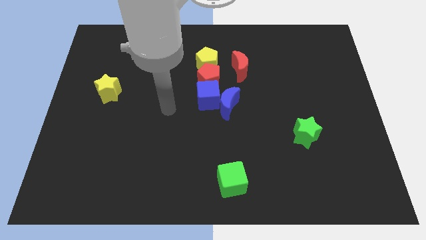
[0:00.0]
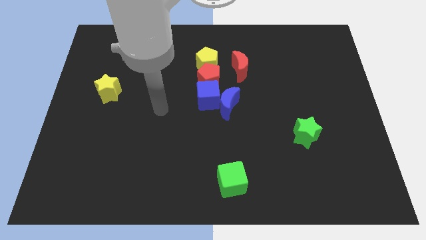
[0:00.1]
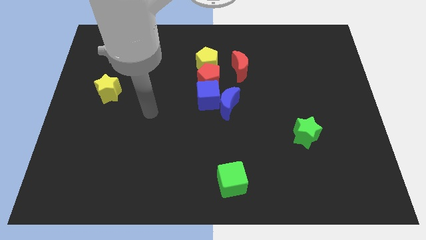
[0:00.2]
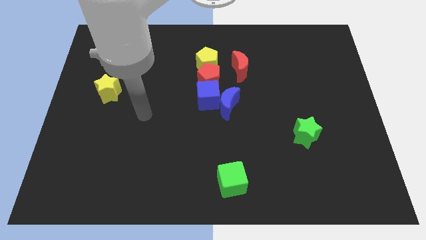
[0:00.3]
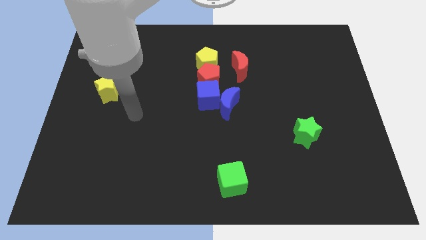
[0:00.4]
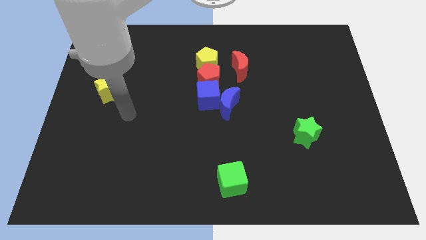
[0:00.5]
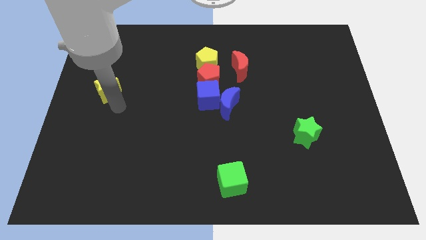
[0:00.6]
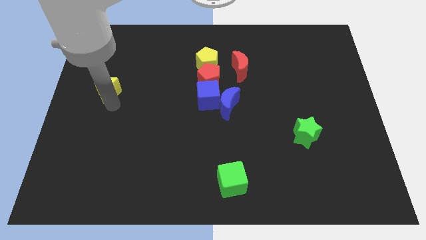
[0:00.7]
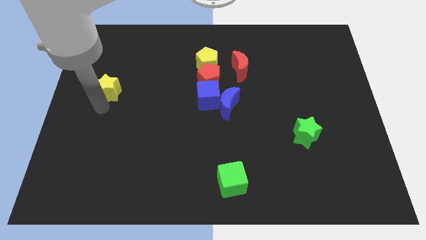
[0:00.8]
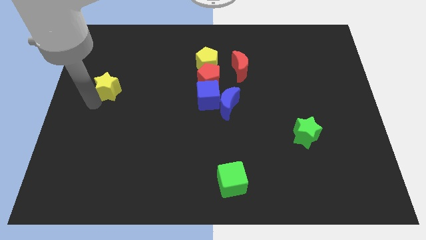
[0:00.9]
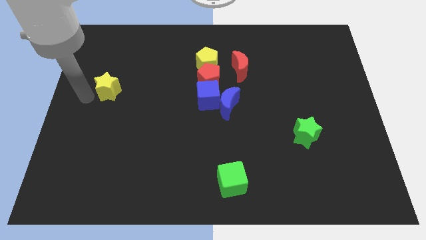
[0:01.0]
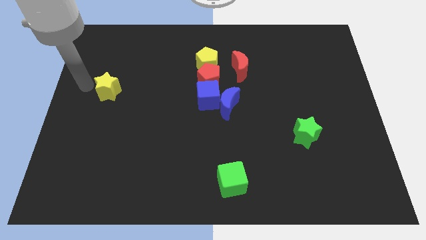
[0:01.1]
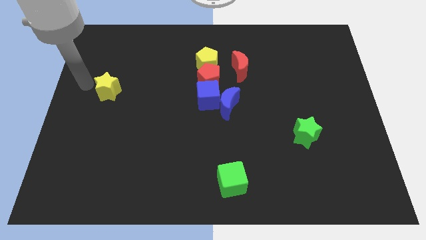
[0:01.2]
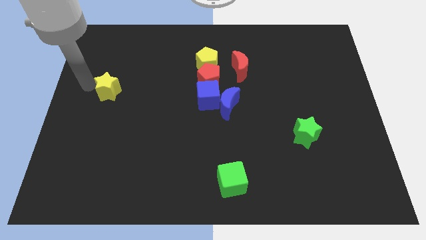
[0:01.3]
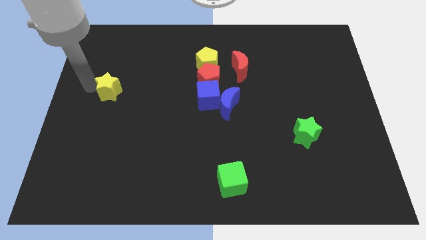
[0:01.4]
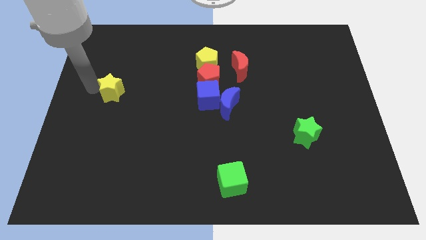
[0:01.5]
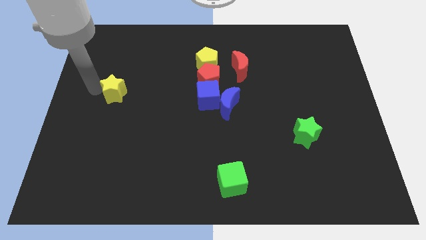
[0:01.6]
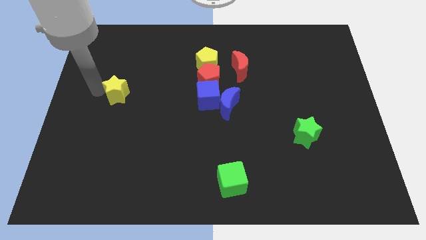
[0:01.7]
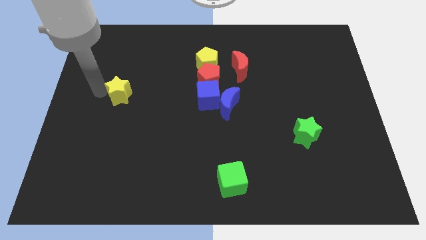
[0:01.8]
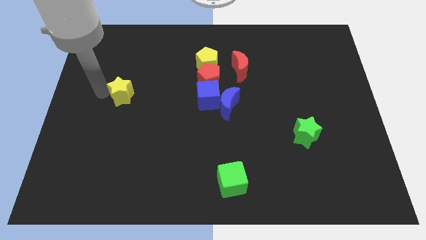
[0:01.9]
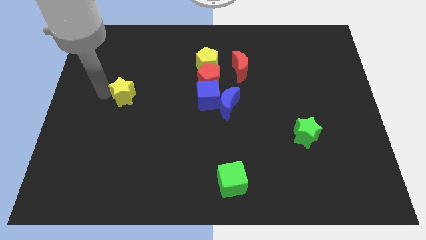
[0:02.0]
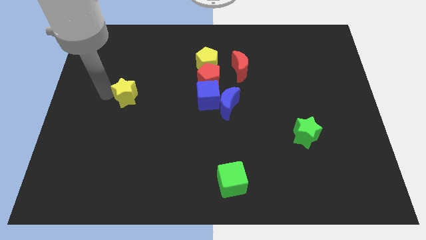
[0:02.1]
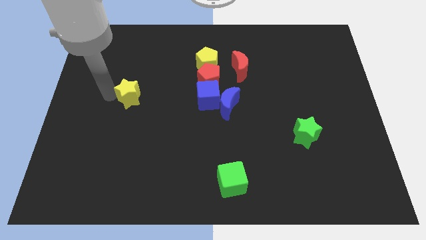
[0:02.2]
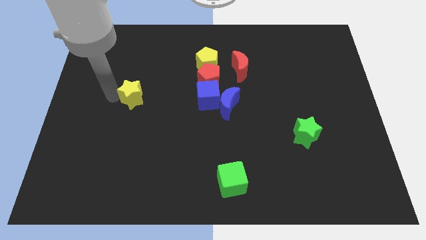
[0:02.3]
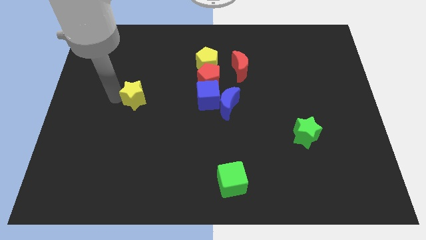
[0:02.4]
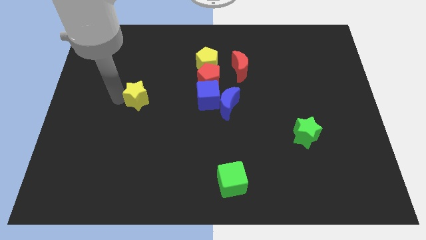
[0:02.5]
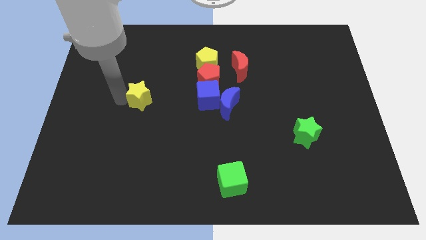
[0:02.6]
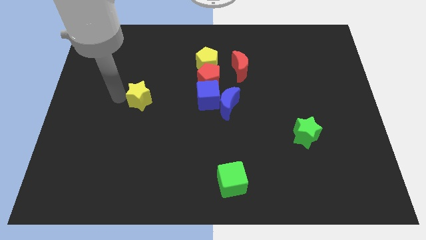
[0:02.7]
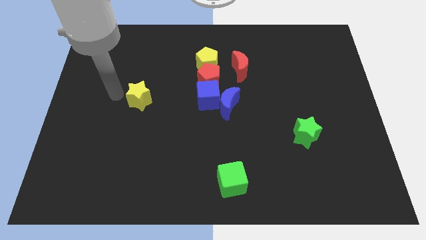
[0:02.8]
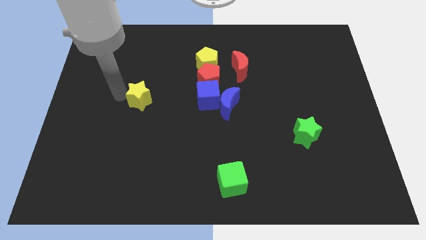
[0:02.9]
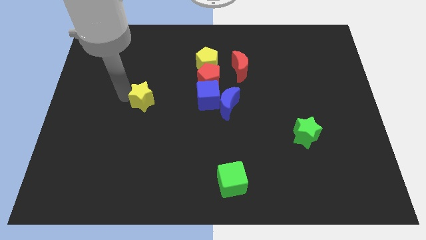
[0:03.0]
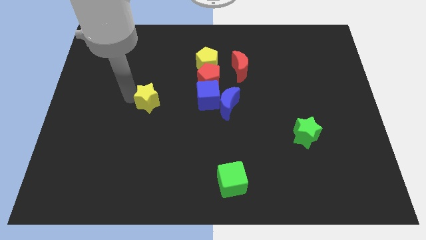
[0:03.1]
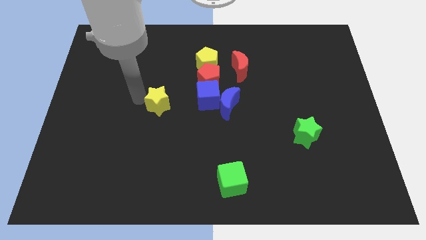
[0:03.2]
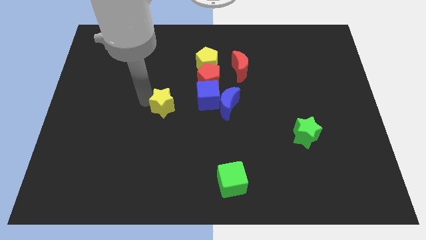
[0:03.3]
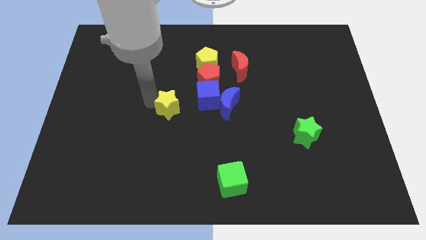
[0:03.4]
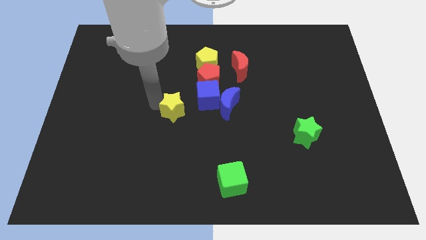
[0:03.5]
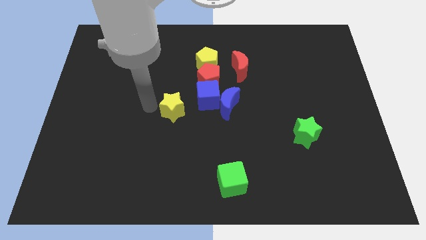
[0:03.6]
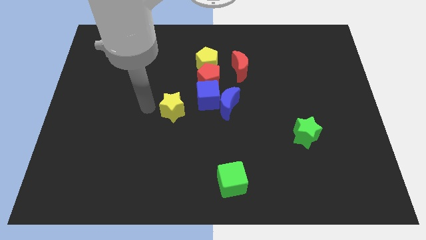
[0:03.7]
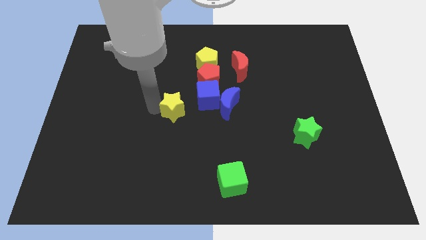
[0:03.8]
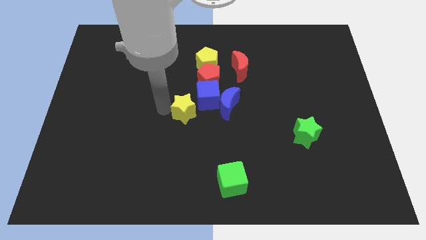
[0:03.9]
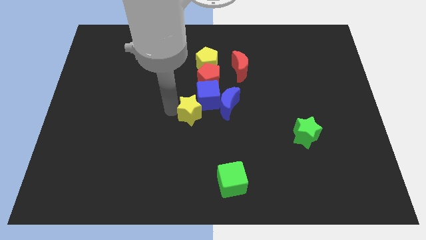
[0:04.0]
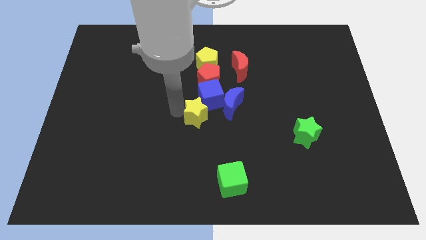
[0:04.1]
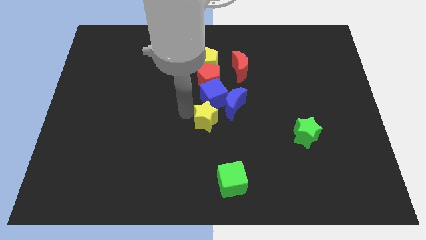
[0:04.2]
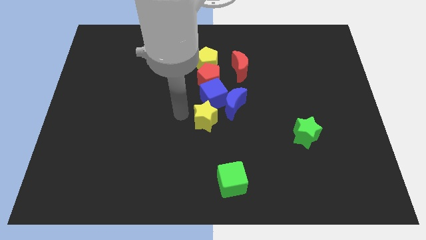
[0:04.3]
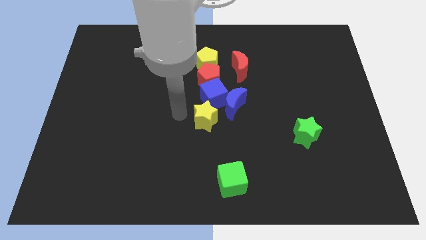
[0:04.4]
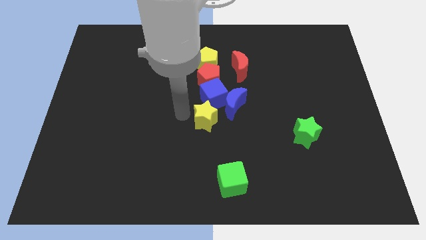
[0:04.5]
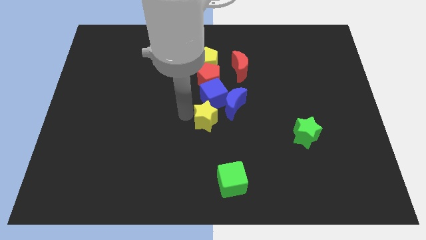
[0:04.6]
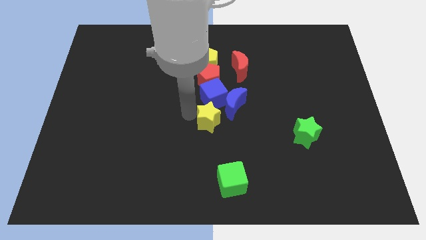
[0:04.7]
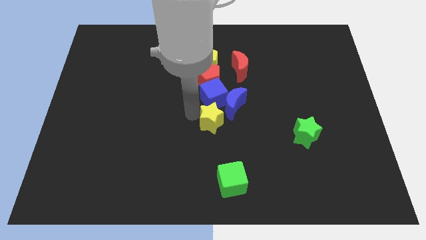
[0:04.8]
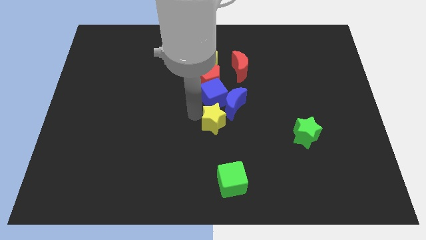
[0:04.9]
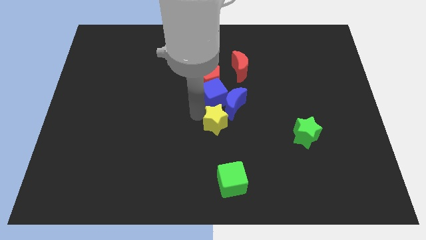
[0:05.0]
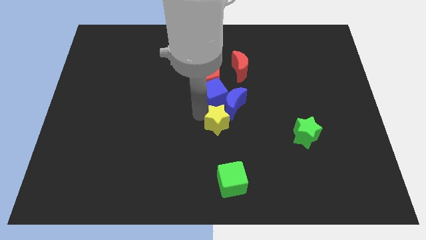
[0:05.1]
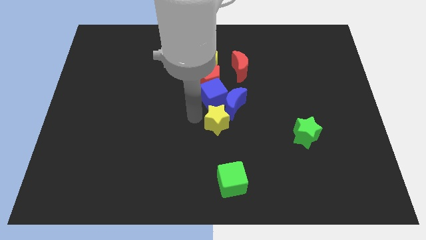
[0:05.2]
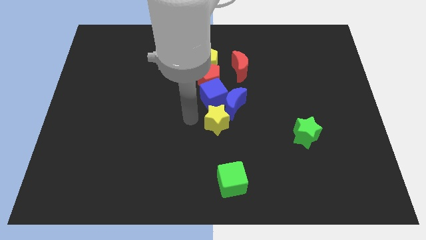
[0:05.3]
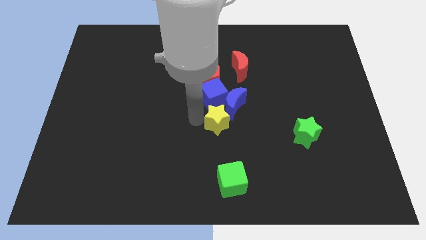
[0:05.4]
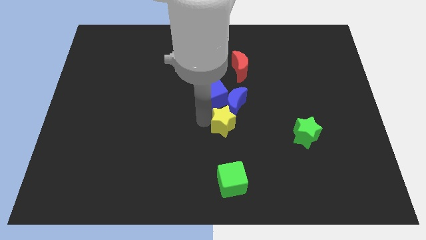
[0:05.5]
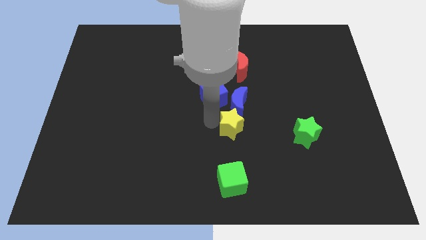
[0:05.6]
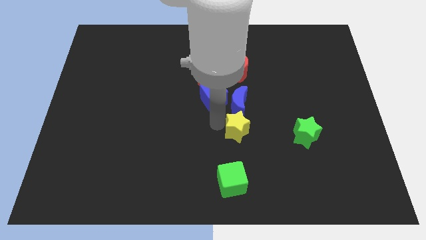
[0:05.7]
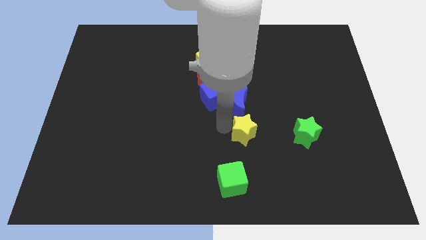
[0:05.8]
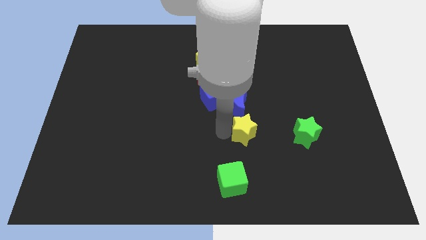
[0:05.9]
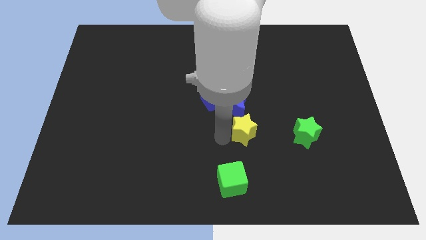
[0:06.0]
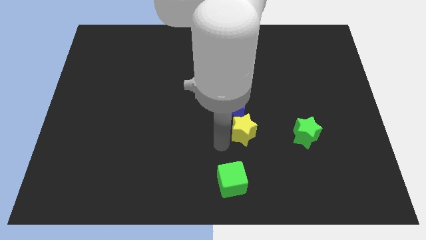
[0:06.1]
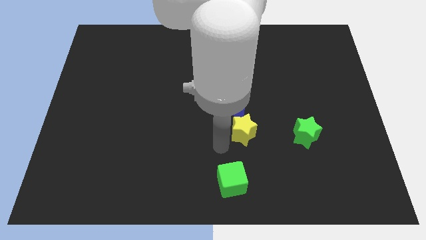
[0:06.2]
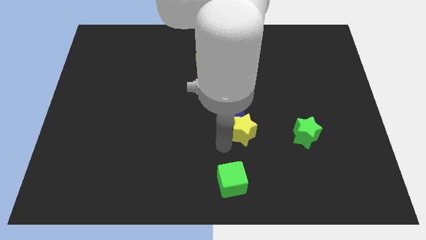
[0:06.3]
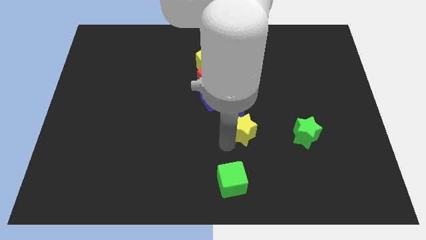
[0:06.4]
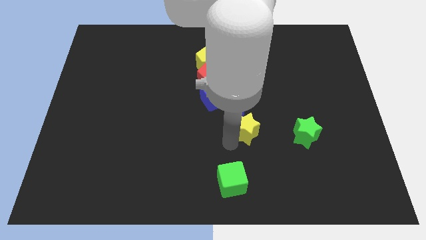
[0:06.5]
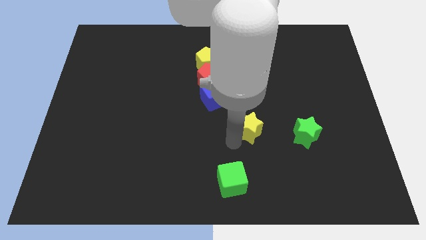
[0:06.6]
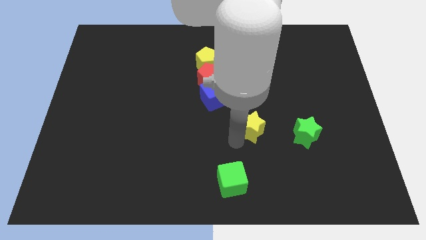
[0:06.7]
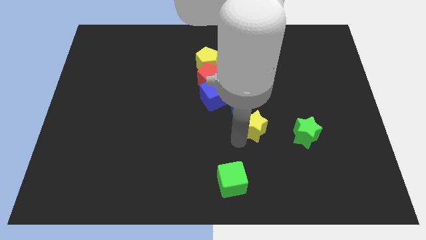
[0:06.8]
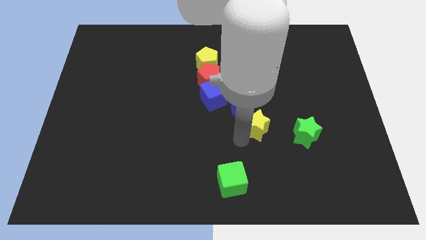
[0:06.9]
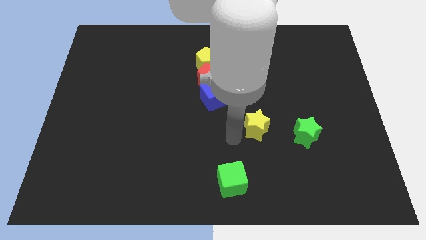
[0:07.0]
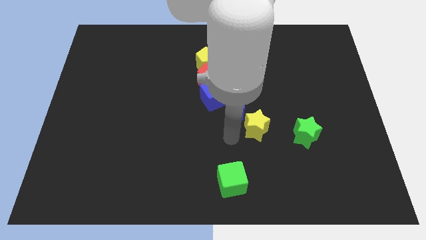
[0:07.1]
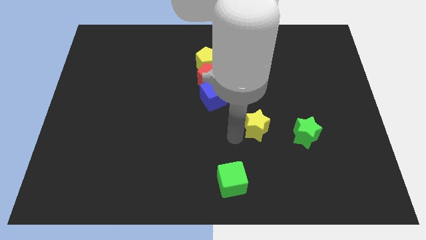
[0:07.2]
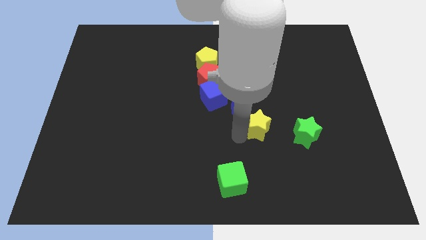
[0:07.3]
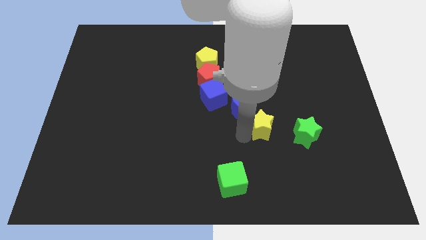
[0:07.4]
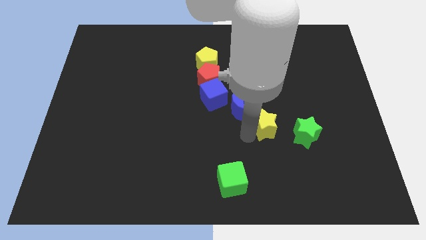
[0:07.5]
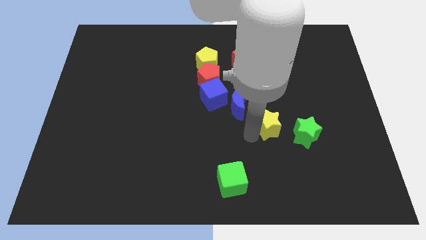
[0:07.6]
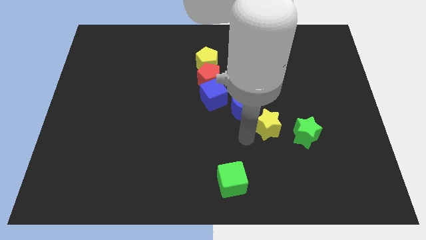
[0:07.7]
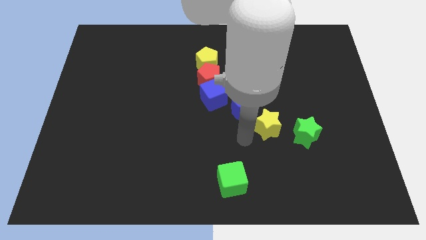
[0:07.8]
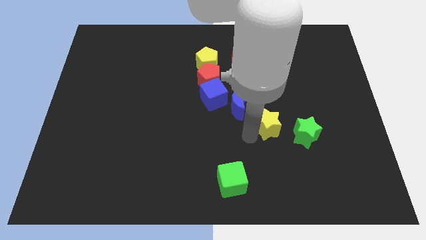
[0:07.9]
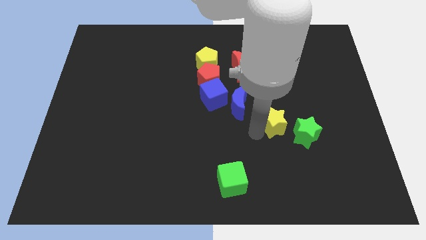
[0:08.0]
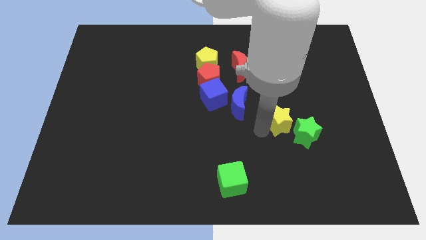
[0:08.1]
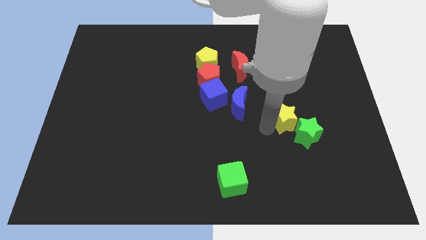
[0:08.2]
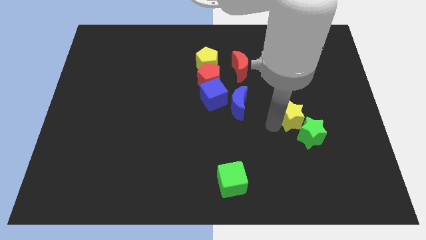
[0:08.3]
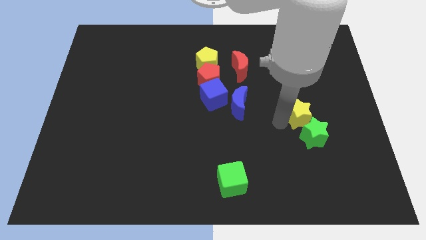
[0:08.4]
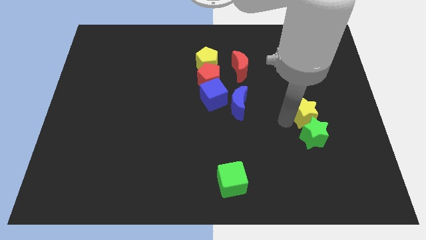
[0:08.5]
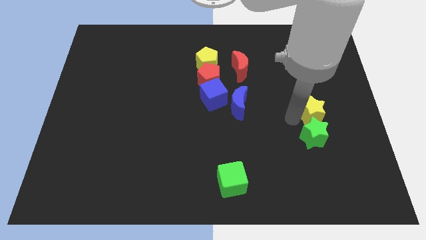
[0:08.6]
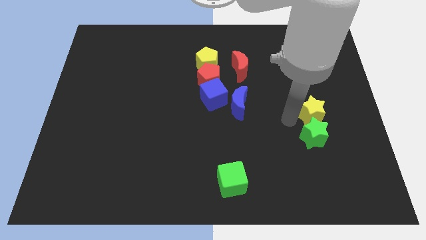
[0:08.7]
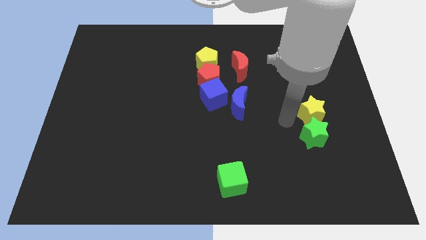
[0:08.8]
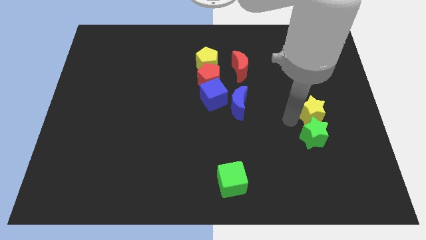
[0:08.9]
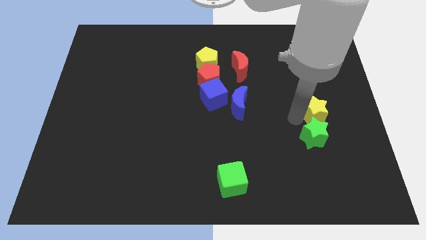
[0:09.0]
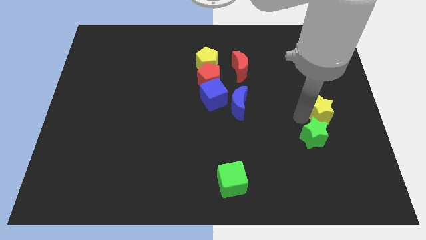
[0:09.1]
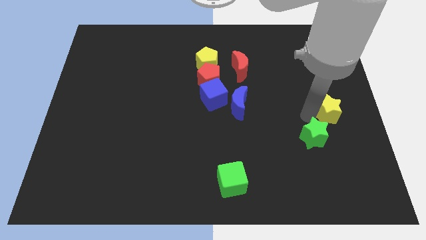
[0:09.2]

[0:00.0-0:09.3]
move the yellow star to the right side
